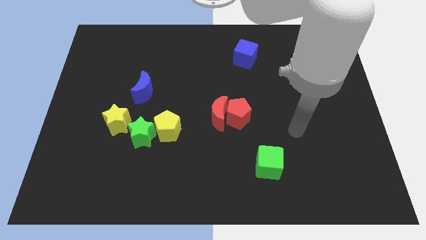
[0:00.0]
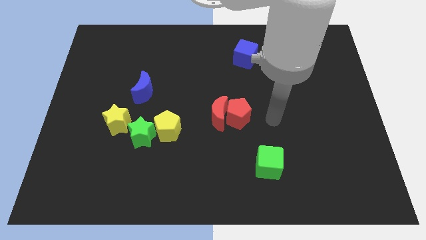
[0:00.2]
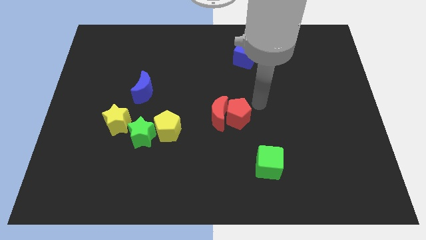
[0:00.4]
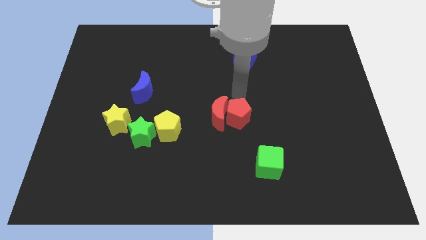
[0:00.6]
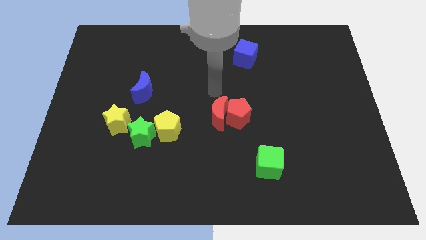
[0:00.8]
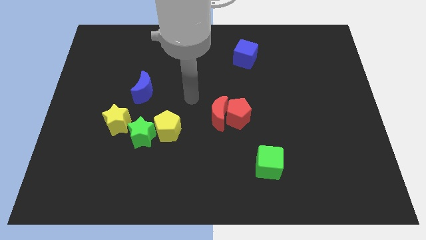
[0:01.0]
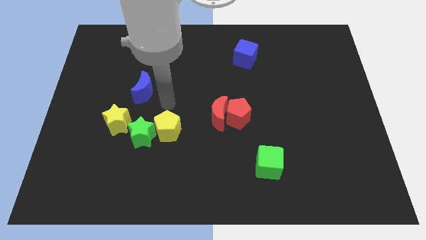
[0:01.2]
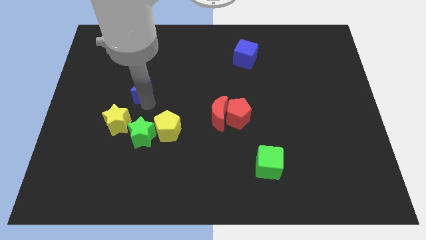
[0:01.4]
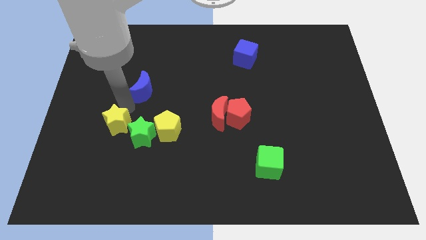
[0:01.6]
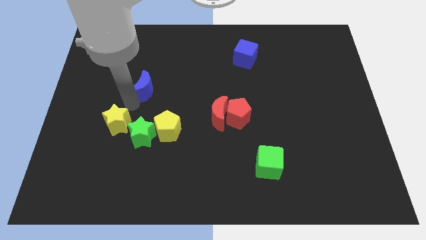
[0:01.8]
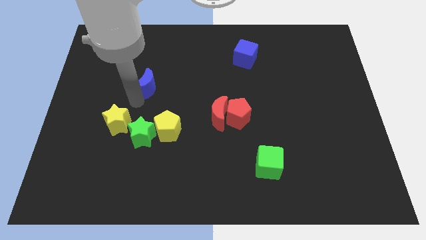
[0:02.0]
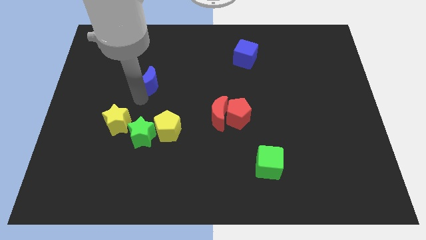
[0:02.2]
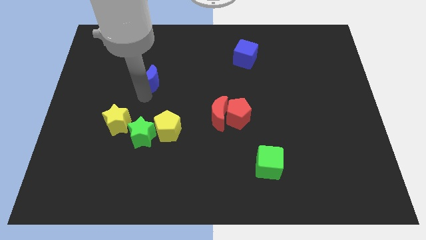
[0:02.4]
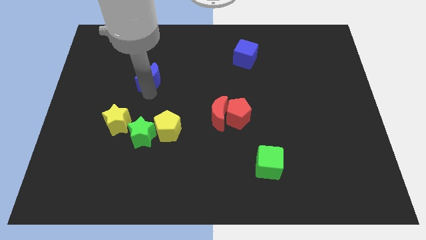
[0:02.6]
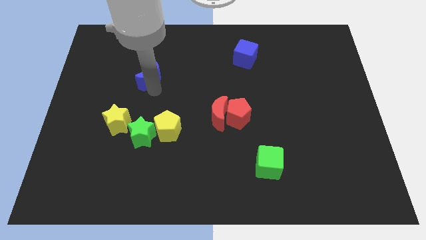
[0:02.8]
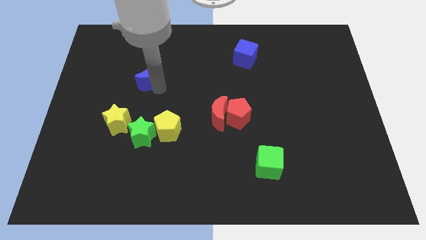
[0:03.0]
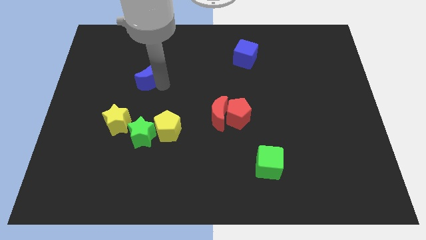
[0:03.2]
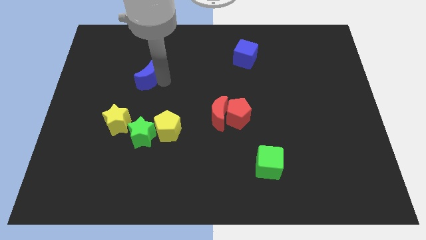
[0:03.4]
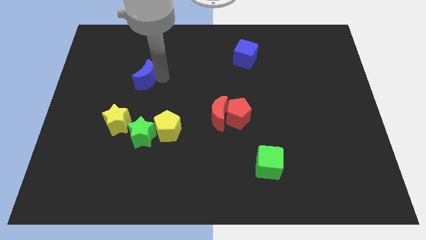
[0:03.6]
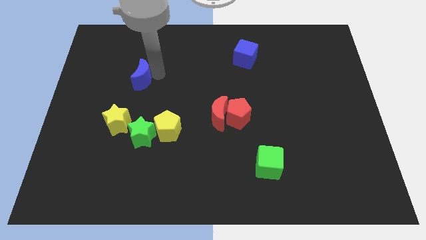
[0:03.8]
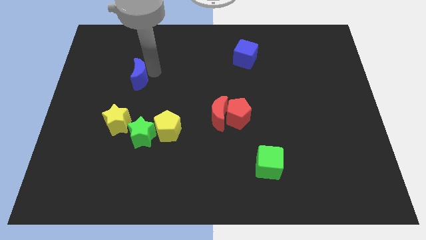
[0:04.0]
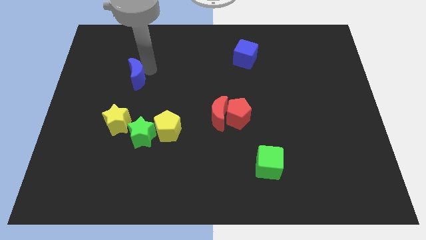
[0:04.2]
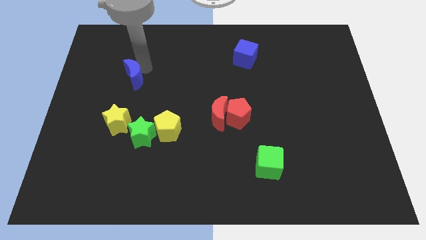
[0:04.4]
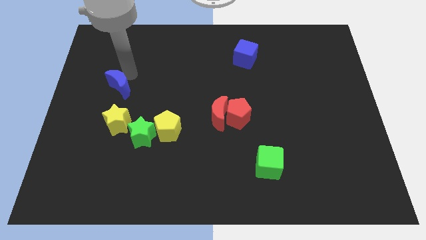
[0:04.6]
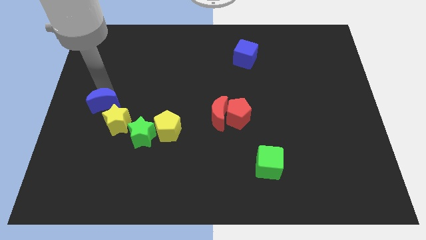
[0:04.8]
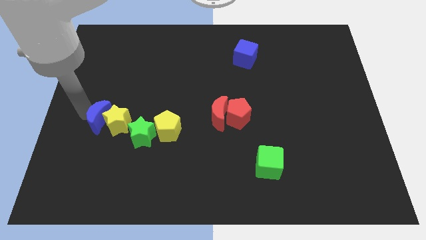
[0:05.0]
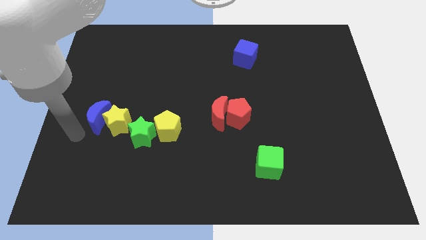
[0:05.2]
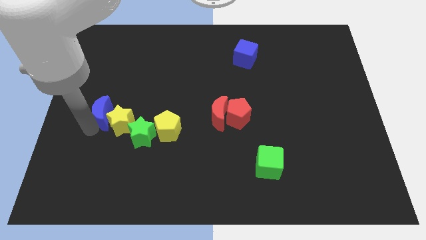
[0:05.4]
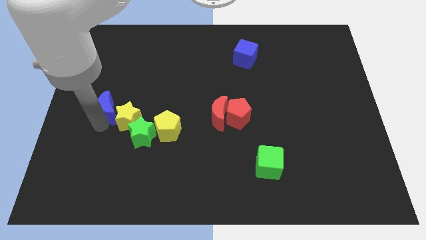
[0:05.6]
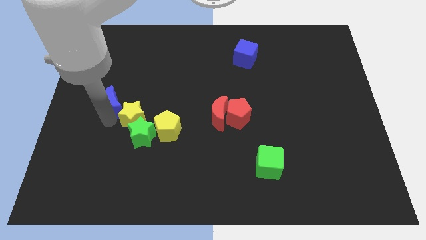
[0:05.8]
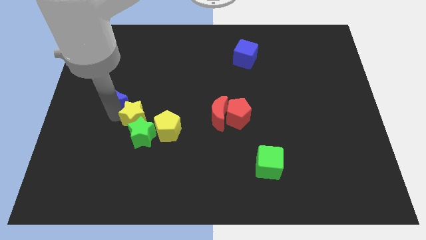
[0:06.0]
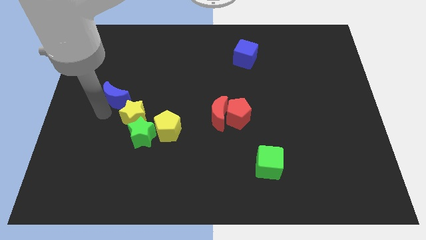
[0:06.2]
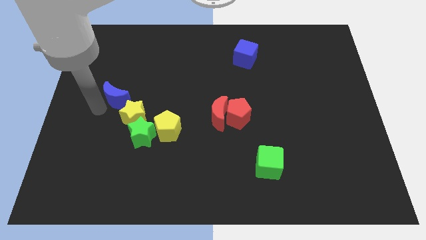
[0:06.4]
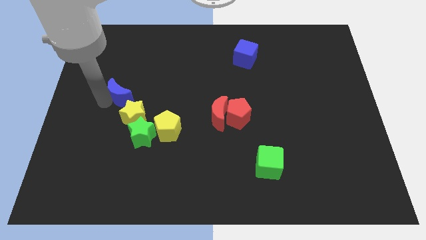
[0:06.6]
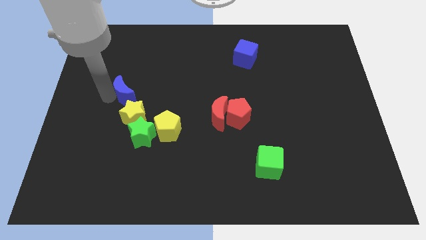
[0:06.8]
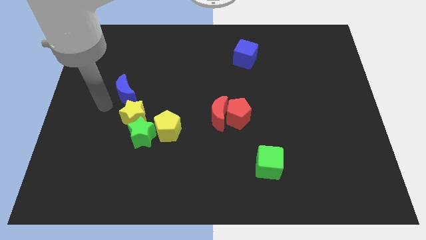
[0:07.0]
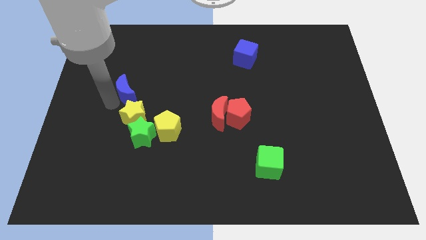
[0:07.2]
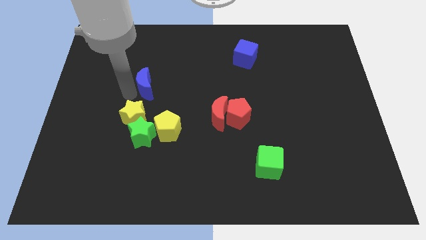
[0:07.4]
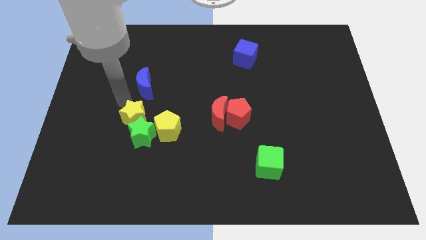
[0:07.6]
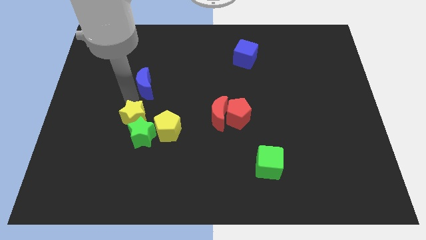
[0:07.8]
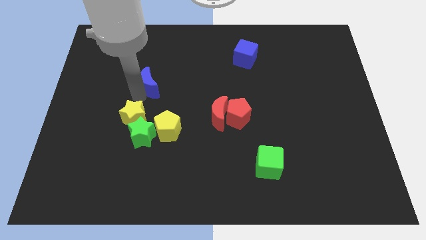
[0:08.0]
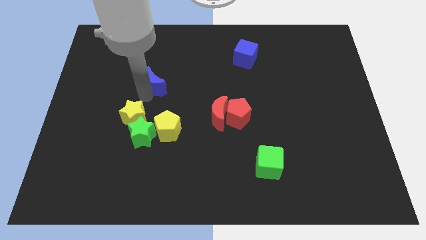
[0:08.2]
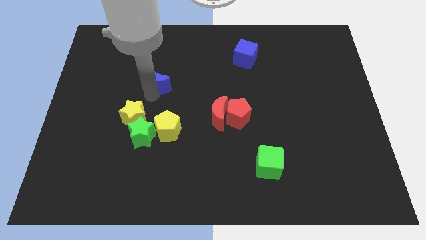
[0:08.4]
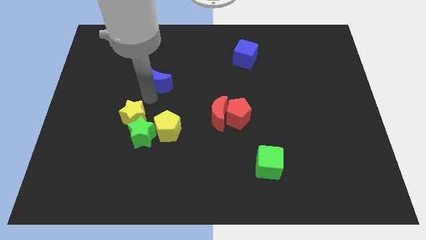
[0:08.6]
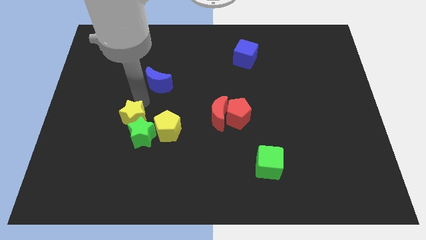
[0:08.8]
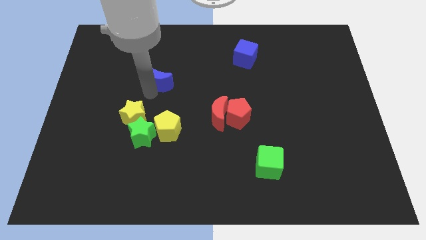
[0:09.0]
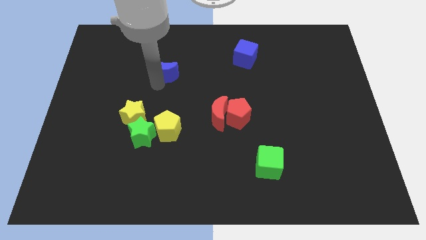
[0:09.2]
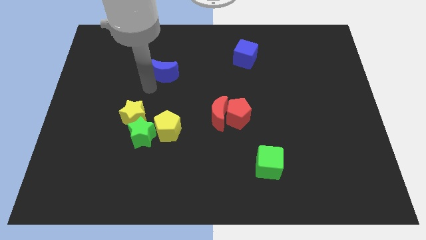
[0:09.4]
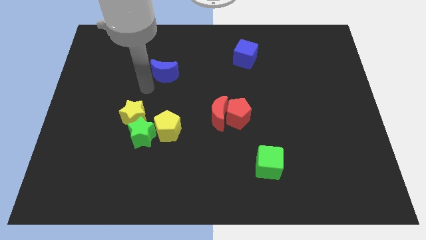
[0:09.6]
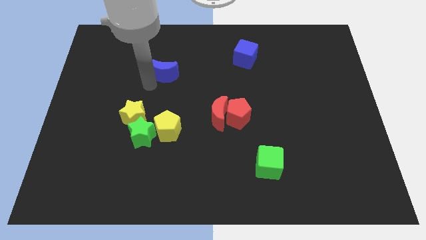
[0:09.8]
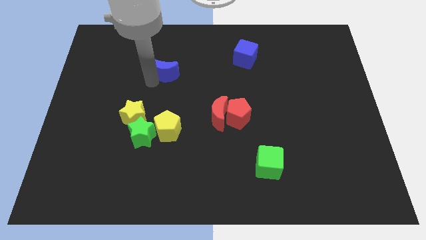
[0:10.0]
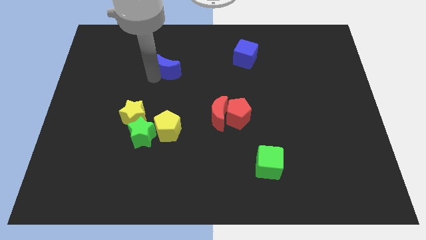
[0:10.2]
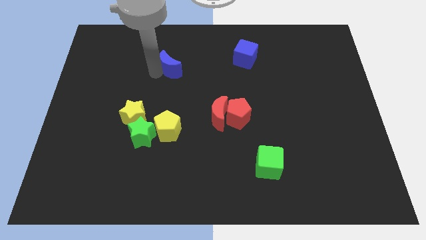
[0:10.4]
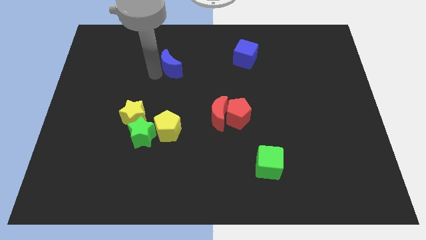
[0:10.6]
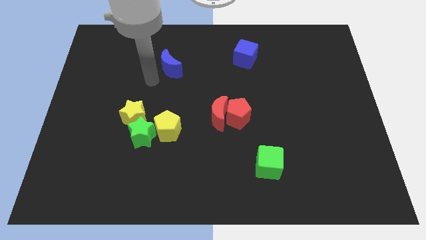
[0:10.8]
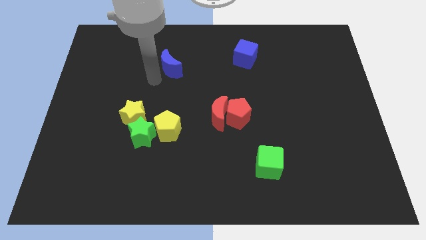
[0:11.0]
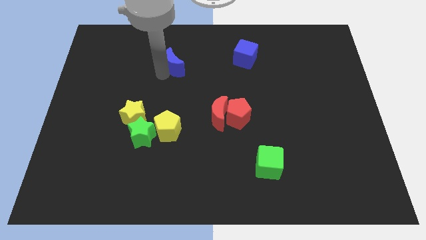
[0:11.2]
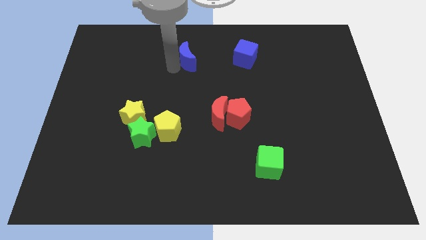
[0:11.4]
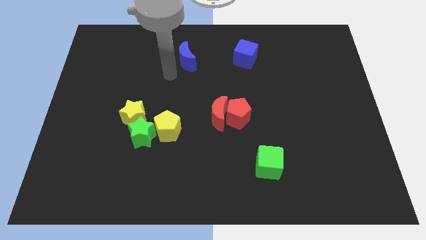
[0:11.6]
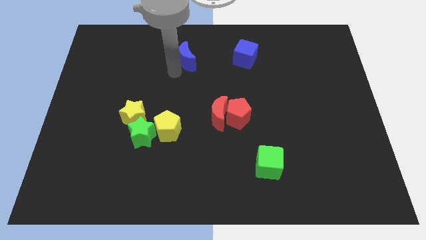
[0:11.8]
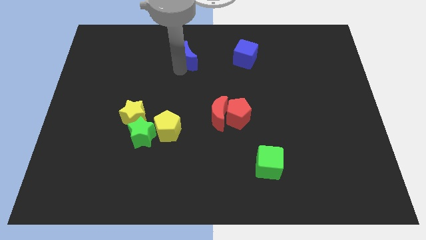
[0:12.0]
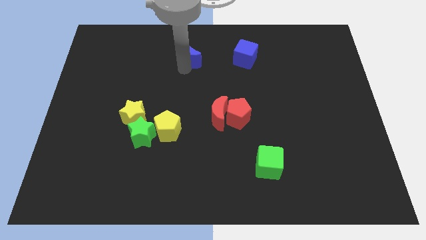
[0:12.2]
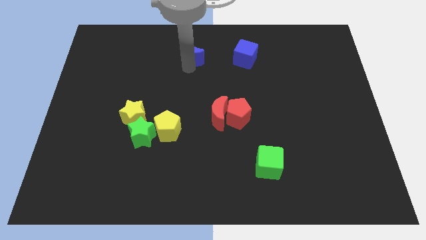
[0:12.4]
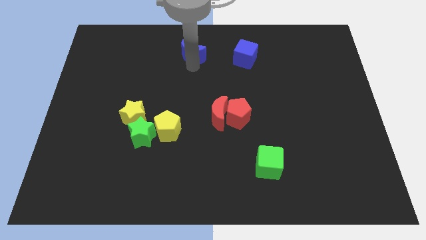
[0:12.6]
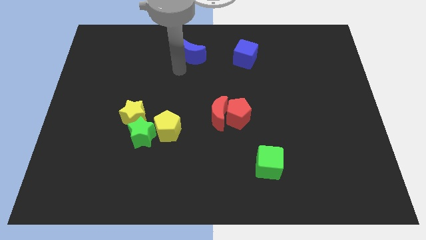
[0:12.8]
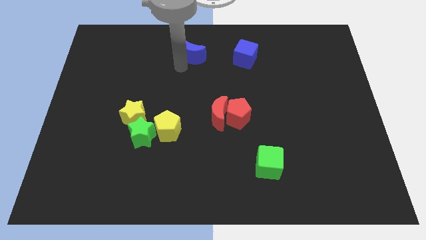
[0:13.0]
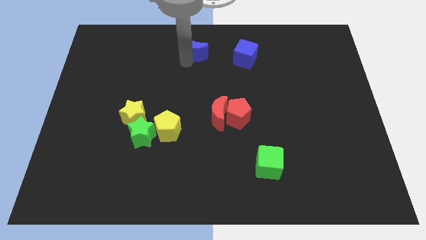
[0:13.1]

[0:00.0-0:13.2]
put the blue moon to the towards your base
